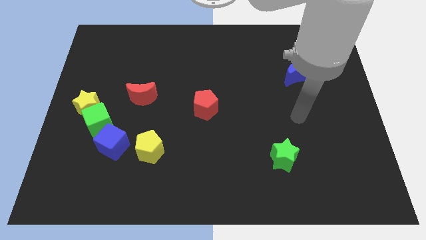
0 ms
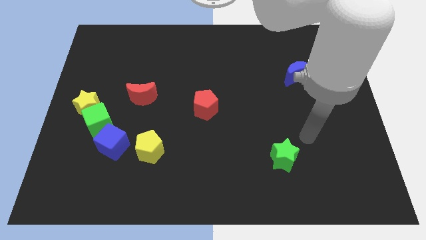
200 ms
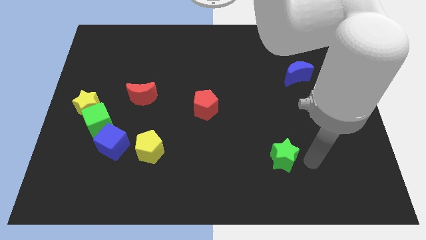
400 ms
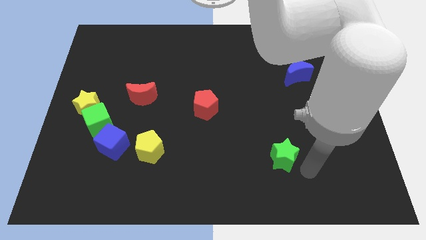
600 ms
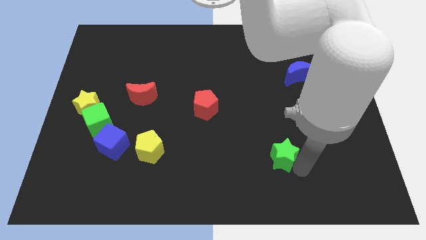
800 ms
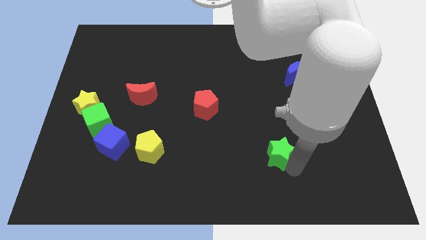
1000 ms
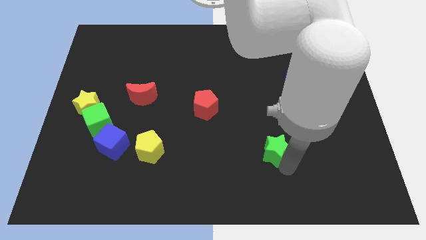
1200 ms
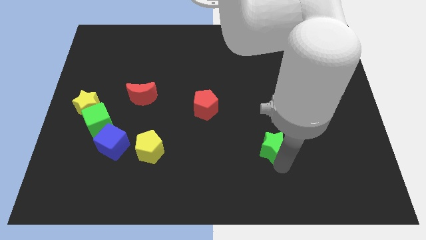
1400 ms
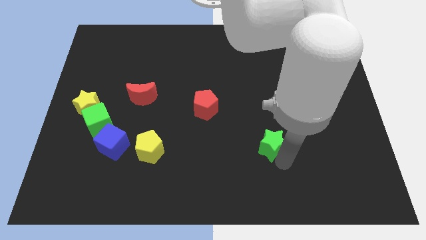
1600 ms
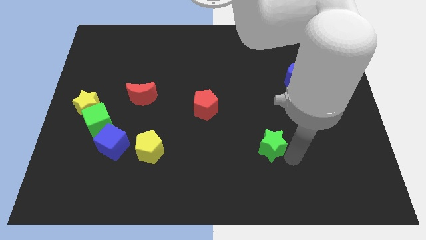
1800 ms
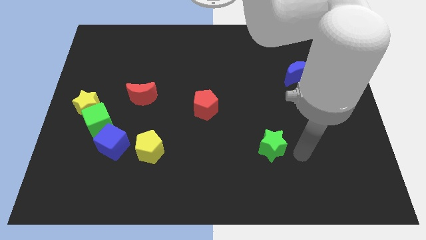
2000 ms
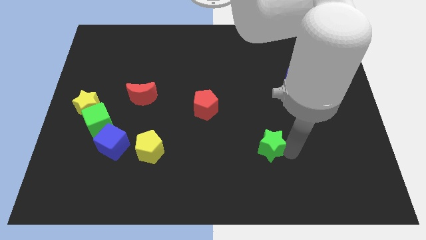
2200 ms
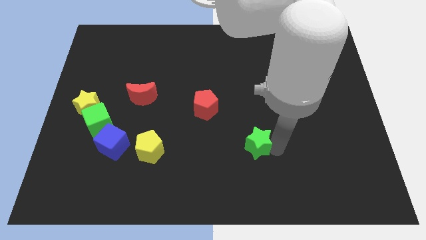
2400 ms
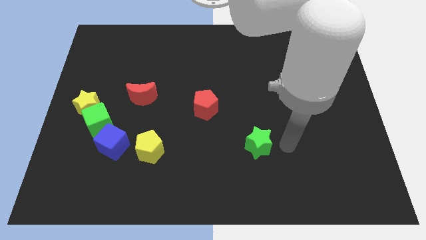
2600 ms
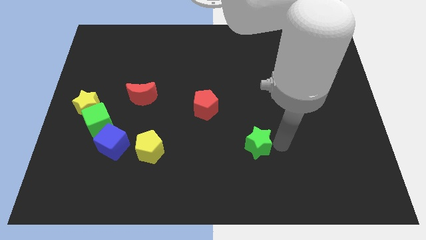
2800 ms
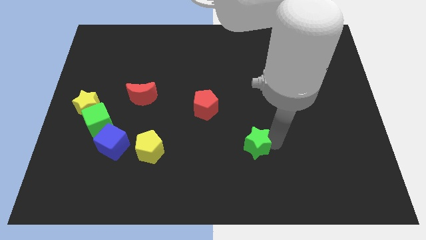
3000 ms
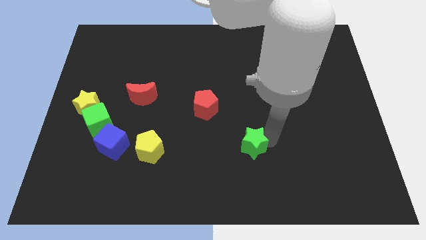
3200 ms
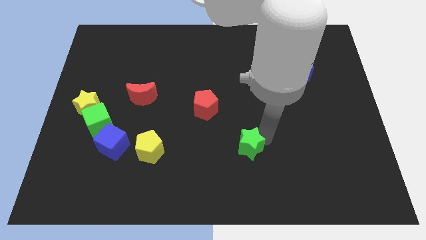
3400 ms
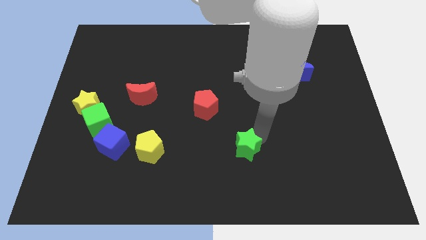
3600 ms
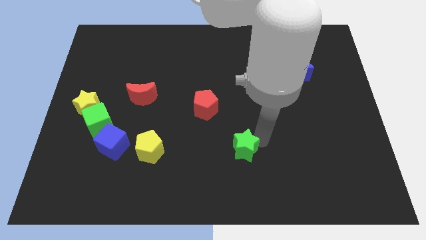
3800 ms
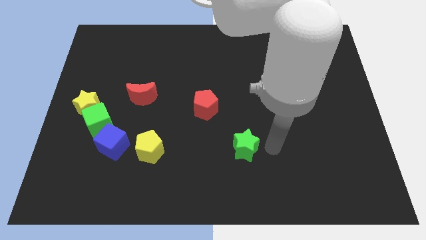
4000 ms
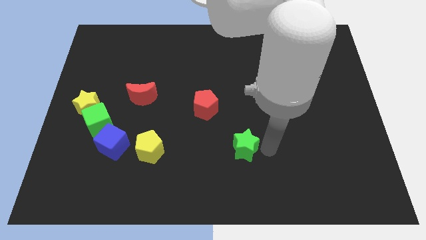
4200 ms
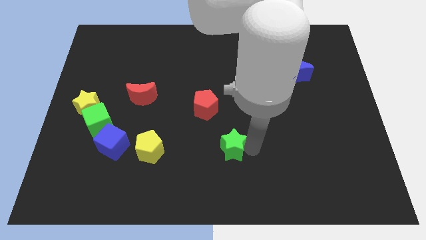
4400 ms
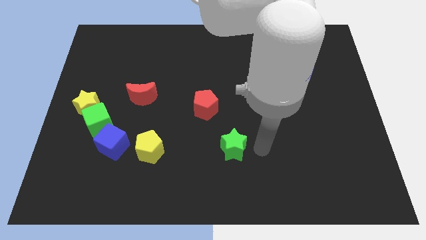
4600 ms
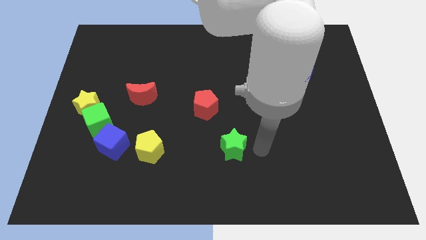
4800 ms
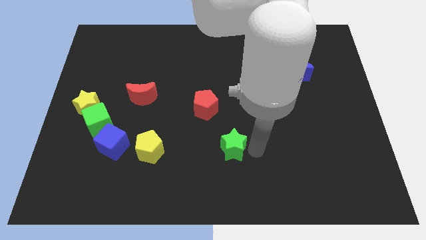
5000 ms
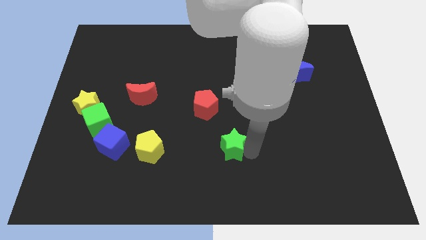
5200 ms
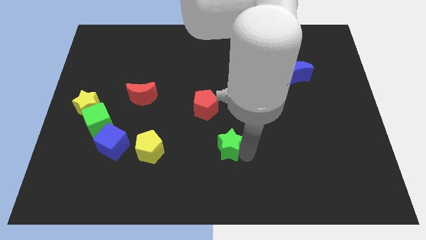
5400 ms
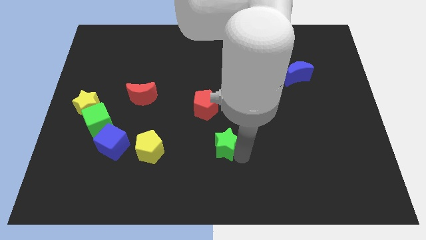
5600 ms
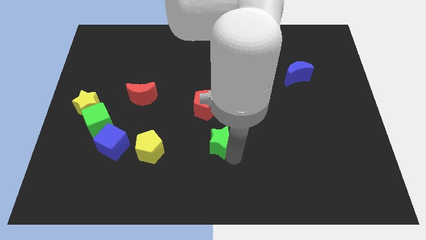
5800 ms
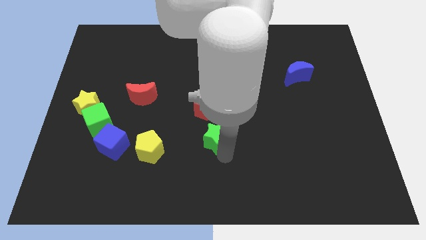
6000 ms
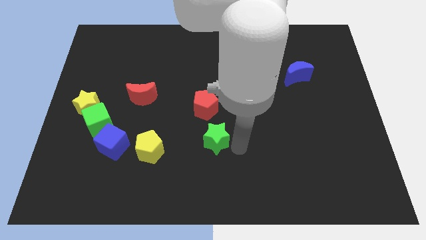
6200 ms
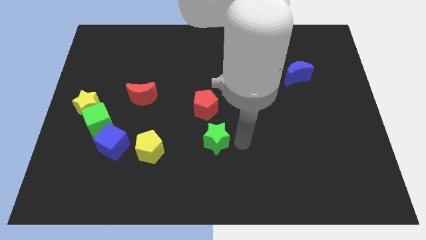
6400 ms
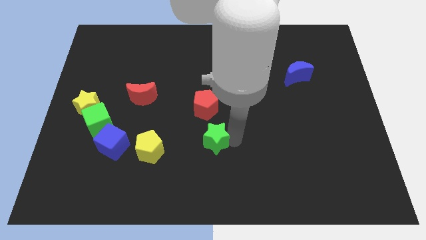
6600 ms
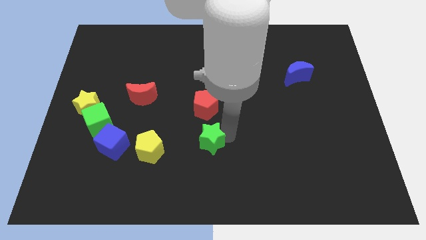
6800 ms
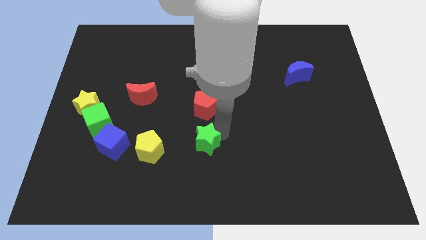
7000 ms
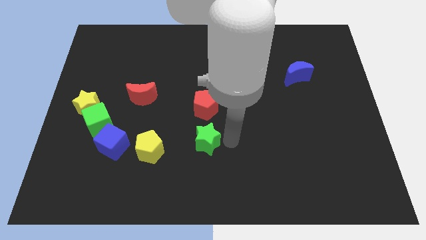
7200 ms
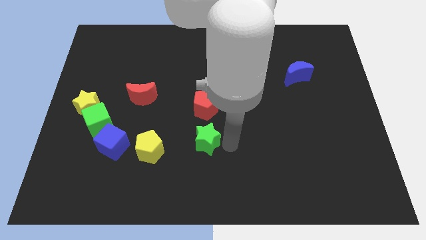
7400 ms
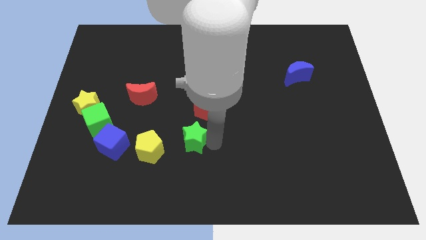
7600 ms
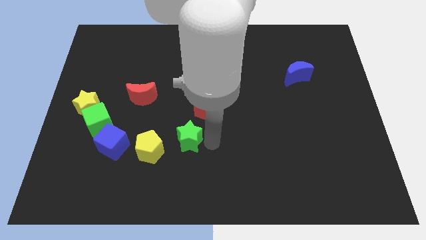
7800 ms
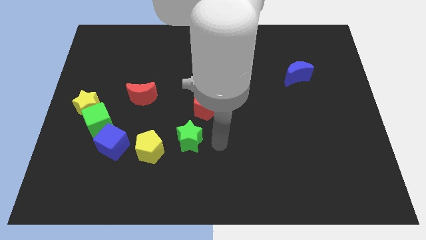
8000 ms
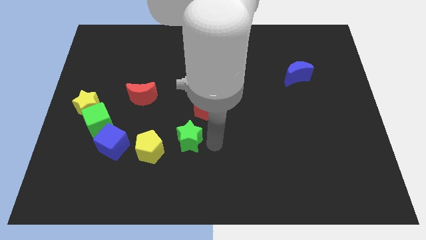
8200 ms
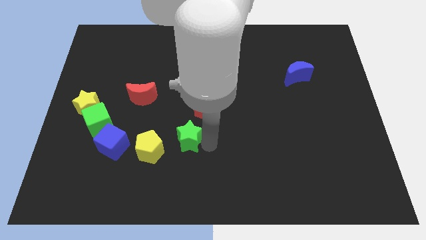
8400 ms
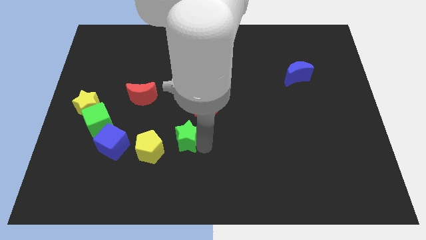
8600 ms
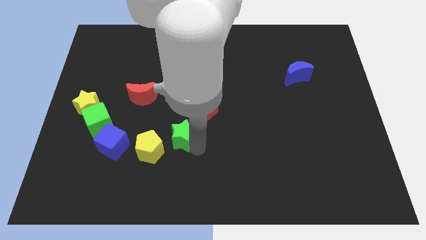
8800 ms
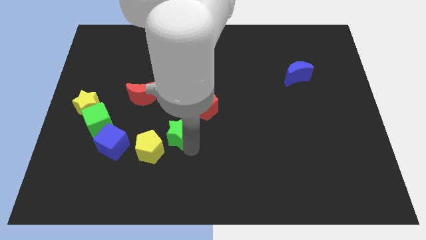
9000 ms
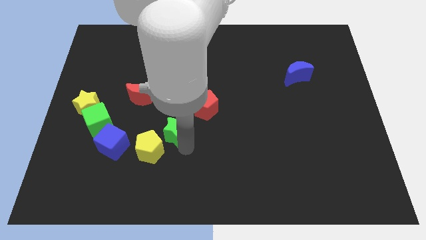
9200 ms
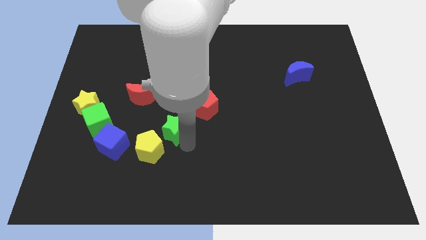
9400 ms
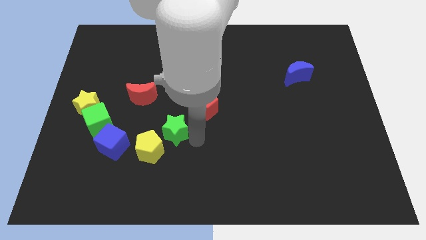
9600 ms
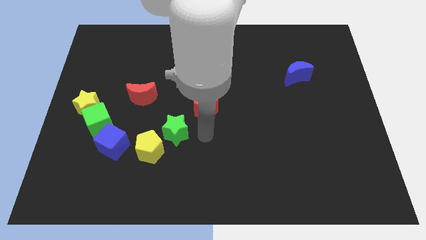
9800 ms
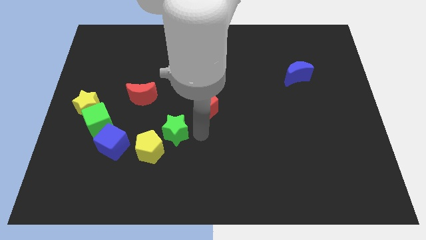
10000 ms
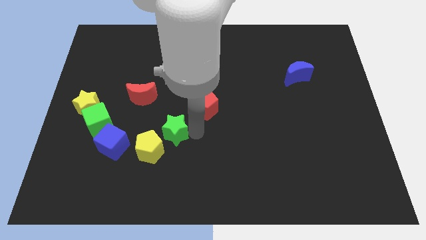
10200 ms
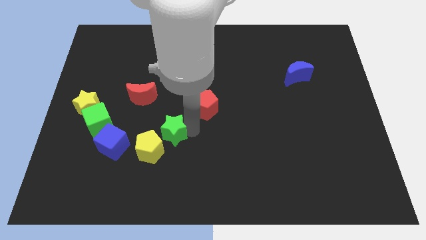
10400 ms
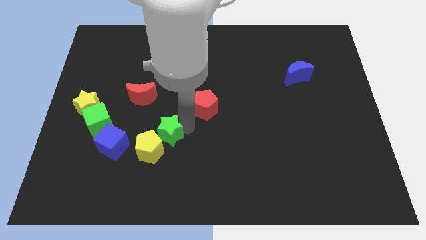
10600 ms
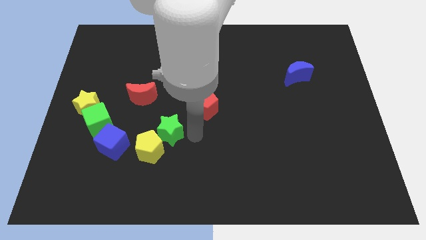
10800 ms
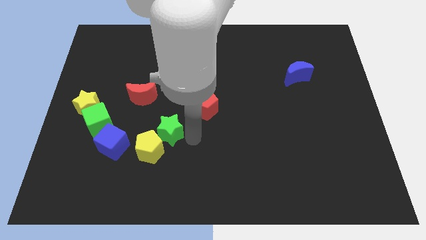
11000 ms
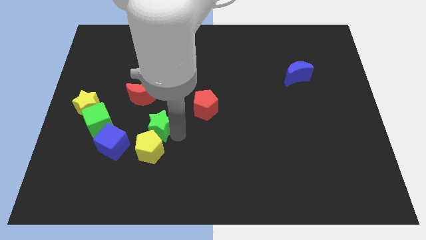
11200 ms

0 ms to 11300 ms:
slide the green star diagonally up and to the right of the blue cube
